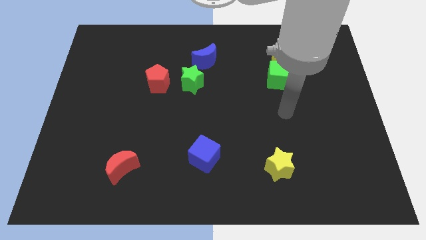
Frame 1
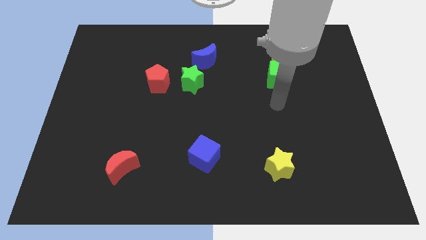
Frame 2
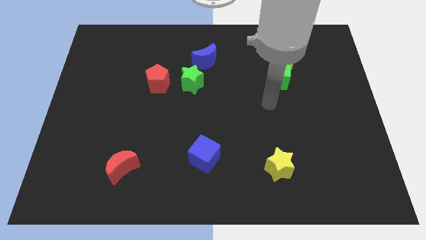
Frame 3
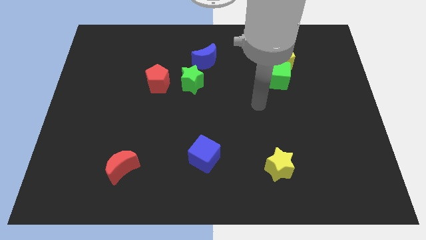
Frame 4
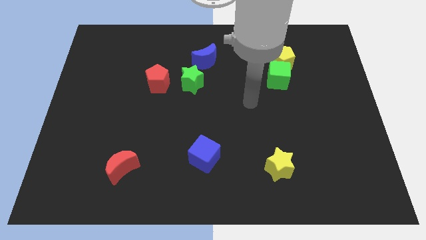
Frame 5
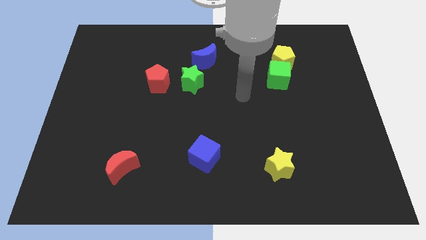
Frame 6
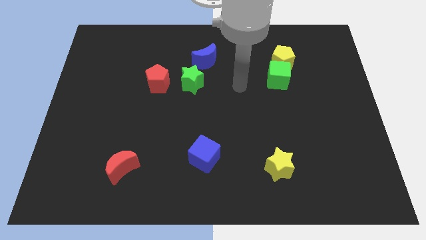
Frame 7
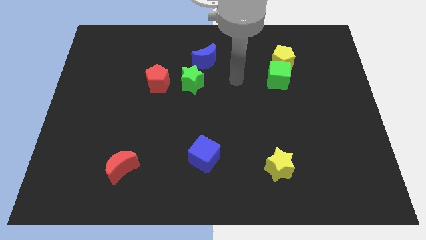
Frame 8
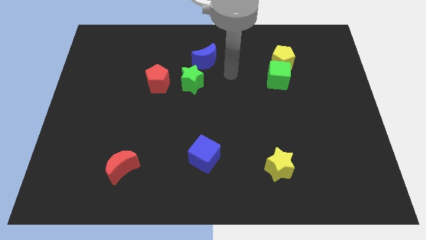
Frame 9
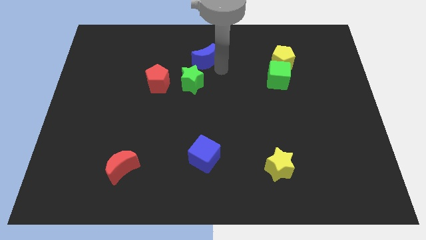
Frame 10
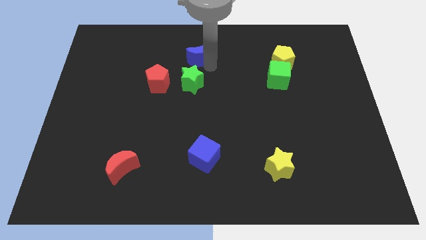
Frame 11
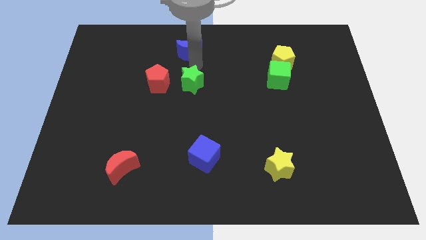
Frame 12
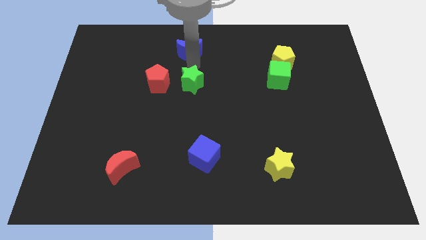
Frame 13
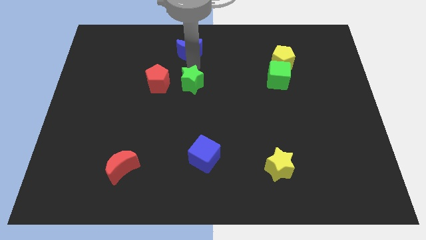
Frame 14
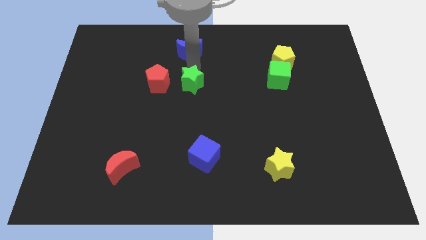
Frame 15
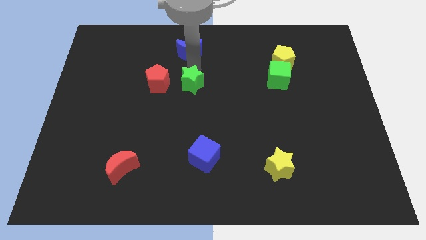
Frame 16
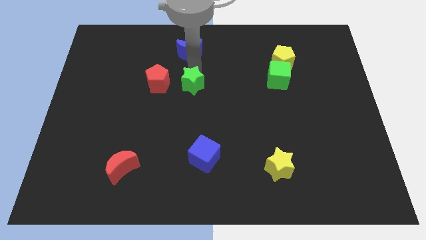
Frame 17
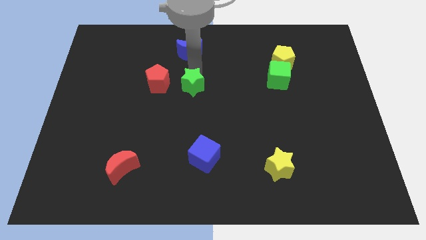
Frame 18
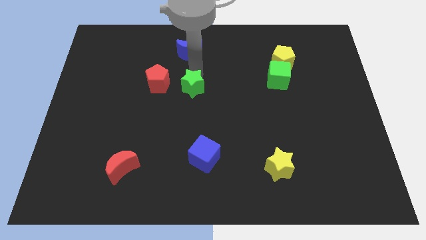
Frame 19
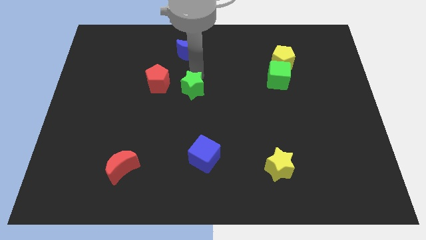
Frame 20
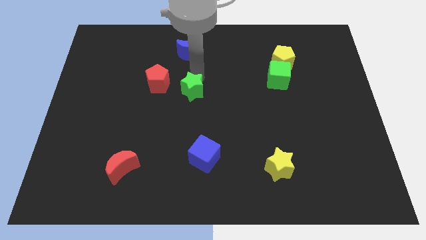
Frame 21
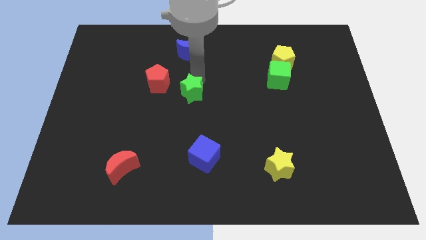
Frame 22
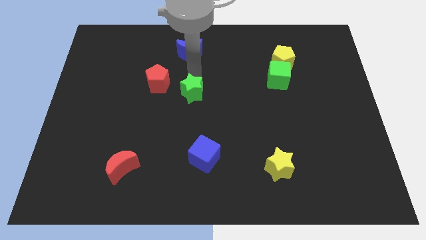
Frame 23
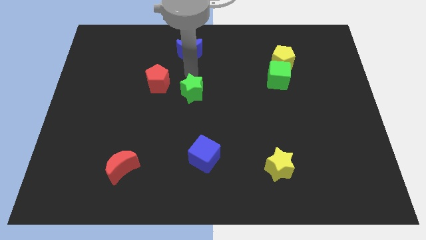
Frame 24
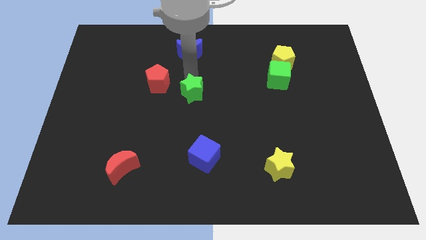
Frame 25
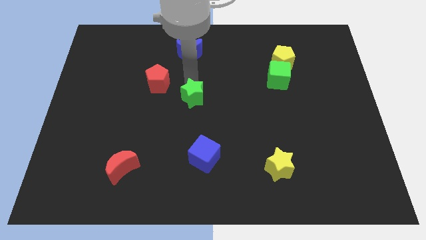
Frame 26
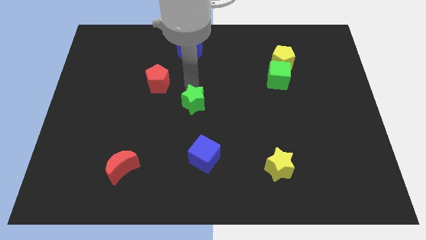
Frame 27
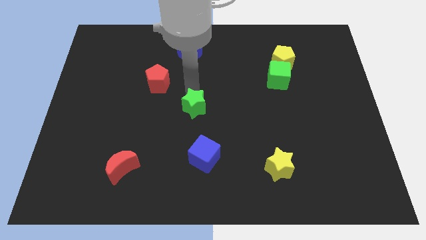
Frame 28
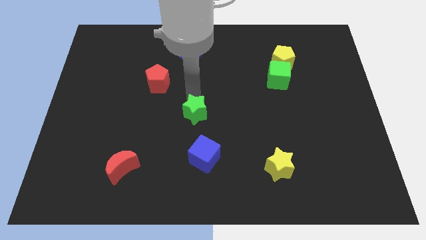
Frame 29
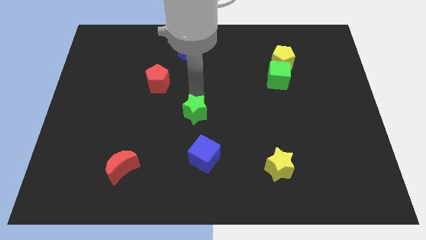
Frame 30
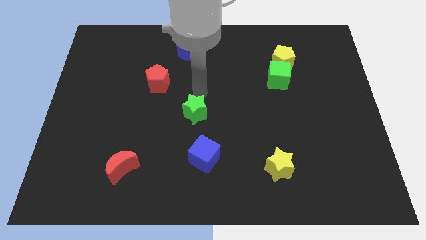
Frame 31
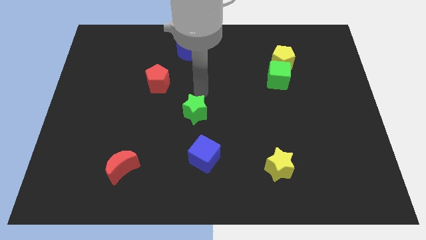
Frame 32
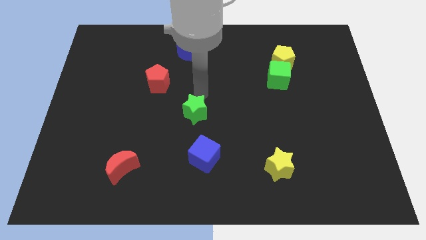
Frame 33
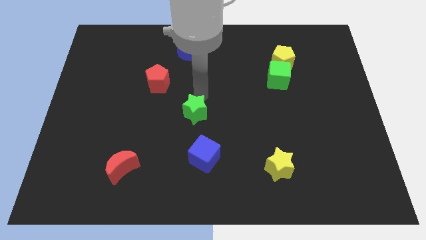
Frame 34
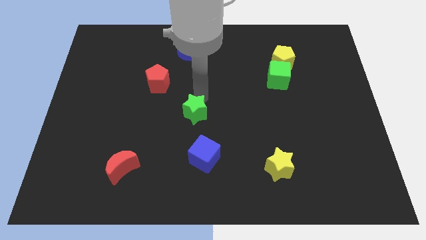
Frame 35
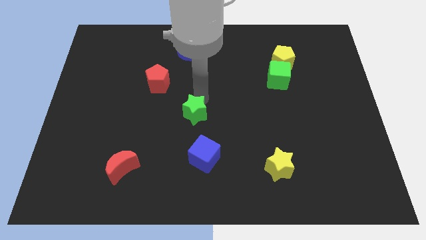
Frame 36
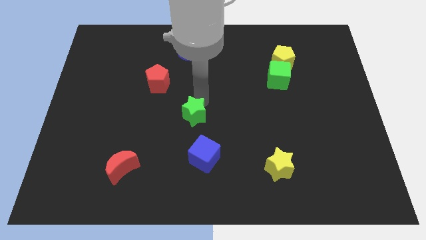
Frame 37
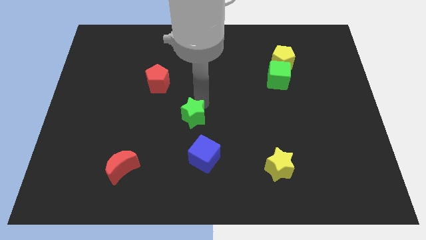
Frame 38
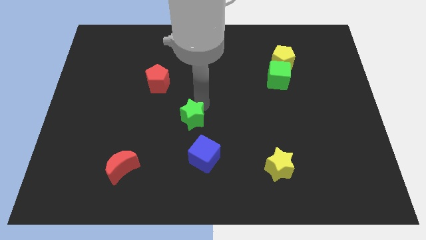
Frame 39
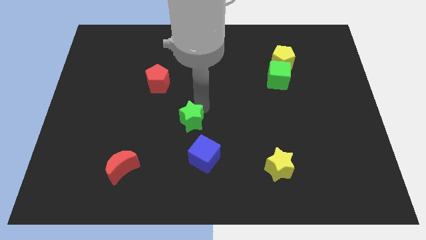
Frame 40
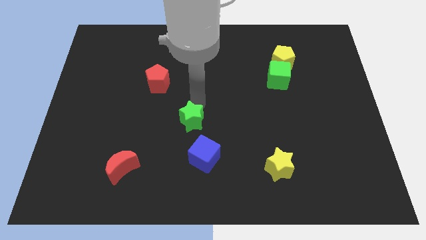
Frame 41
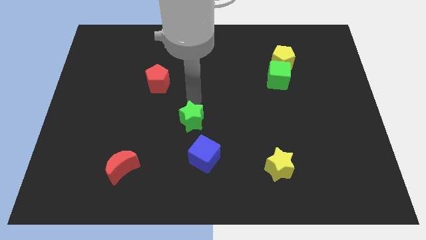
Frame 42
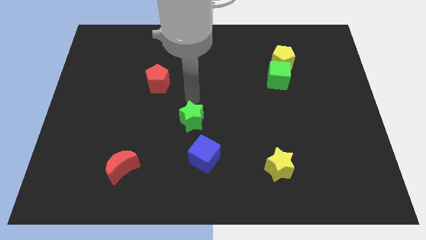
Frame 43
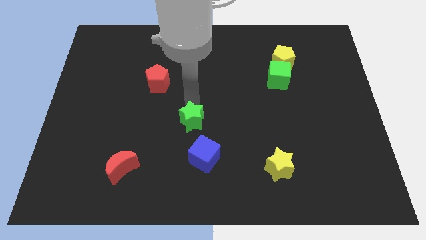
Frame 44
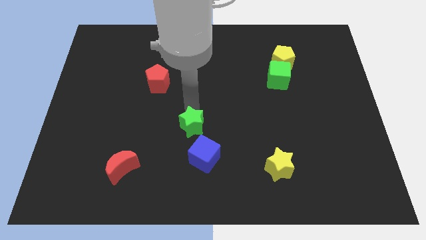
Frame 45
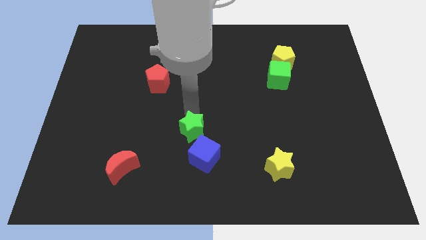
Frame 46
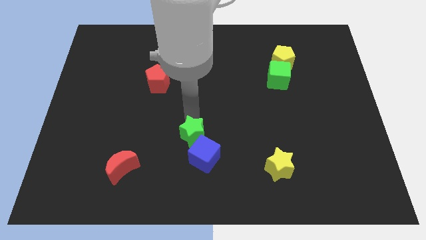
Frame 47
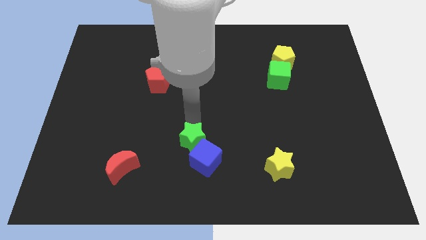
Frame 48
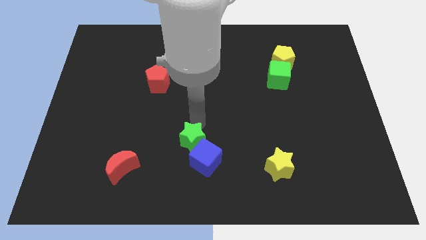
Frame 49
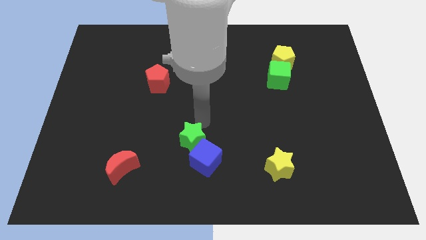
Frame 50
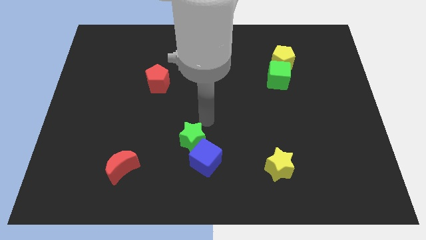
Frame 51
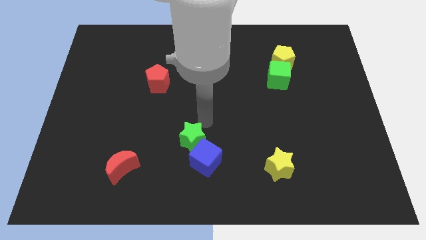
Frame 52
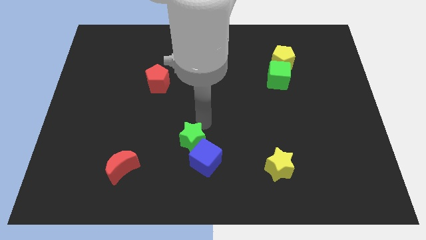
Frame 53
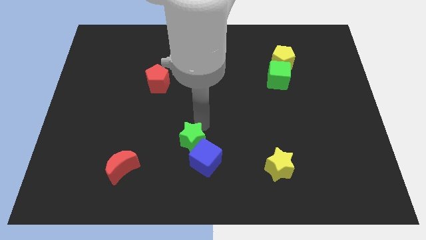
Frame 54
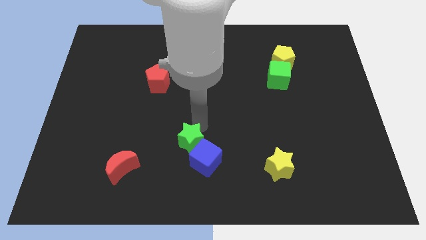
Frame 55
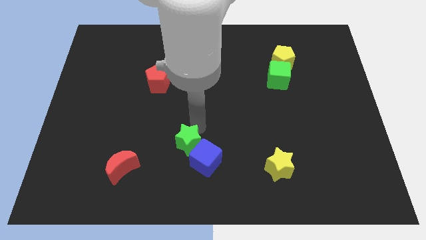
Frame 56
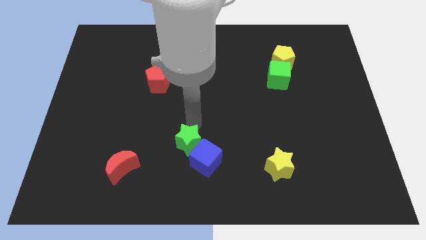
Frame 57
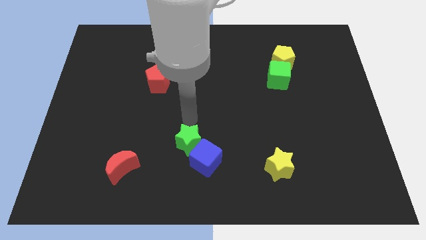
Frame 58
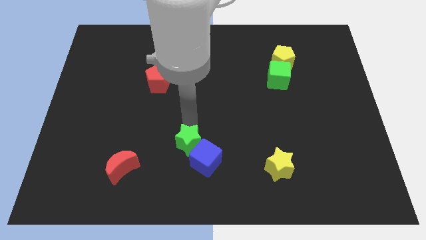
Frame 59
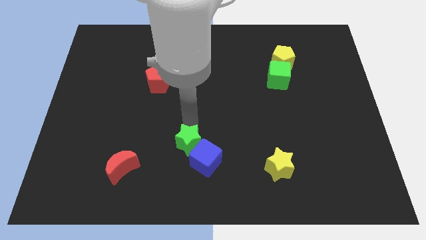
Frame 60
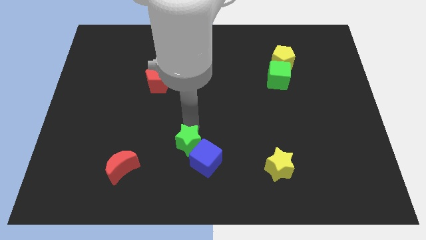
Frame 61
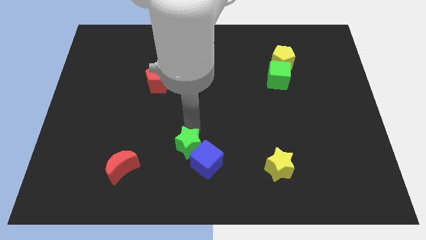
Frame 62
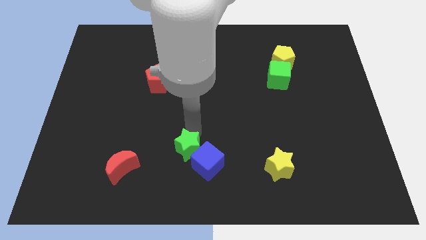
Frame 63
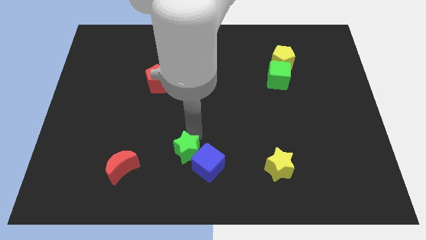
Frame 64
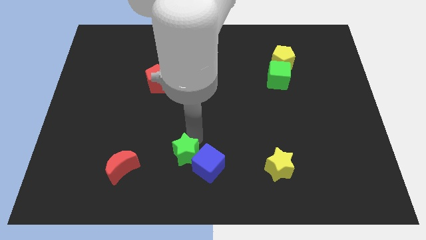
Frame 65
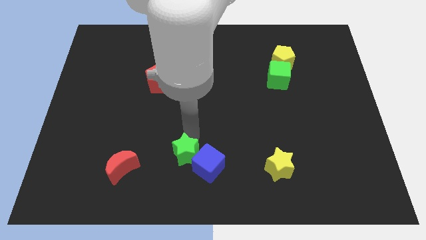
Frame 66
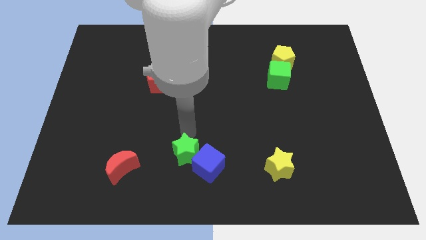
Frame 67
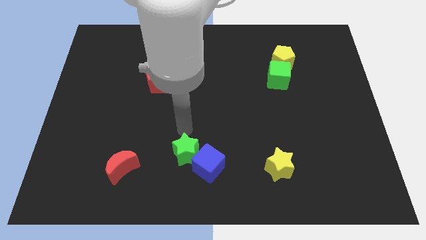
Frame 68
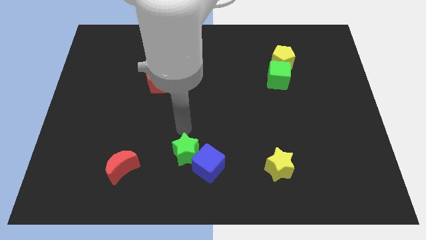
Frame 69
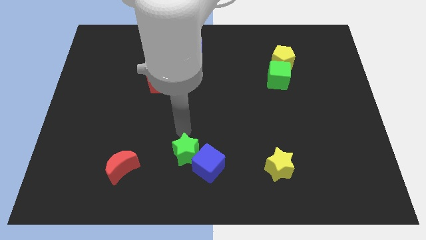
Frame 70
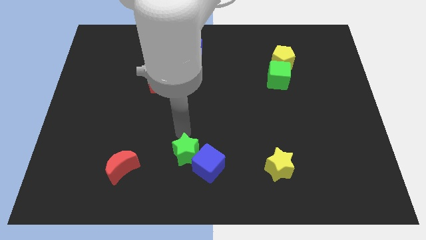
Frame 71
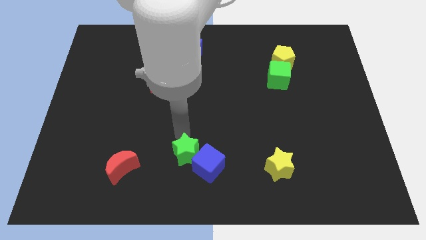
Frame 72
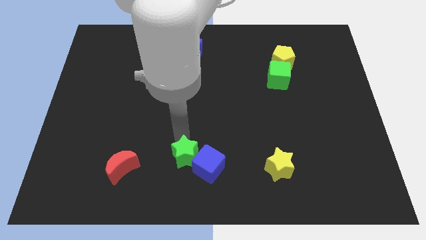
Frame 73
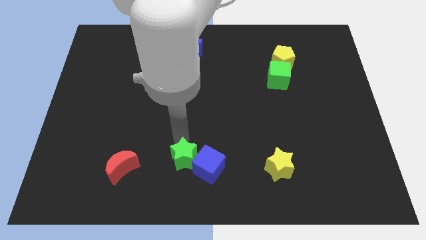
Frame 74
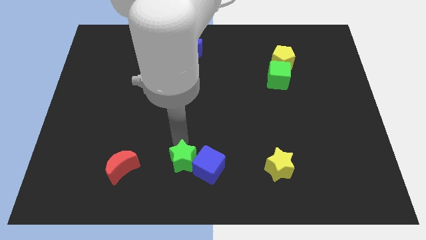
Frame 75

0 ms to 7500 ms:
put the green star to the bottom side
